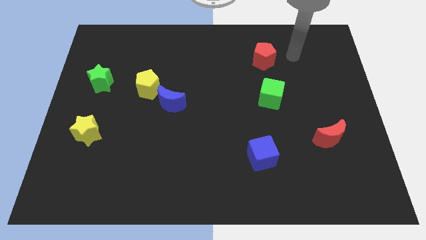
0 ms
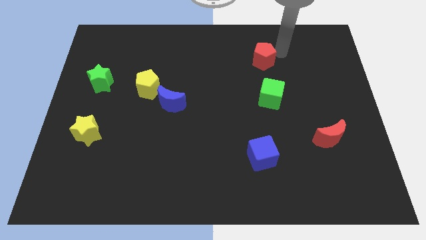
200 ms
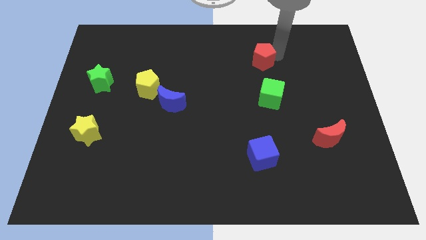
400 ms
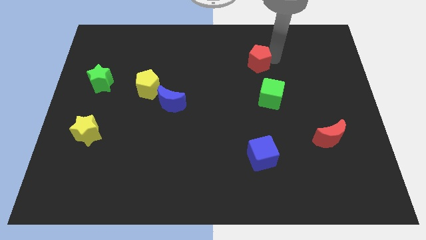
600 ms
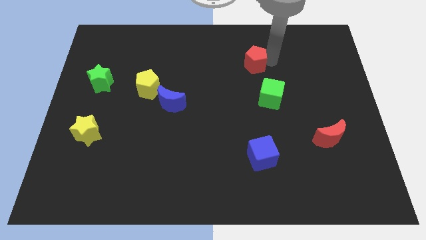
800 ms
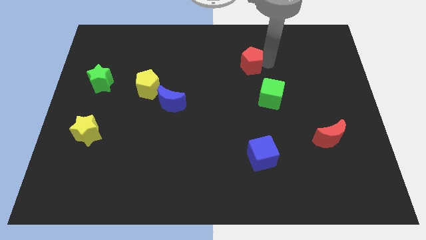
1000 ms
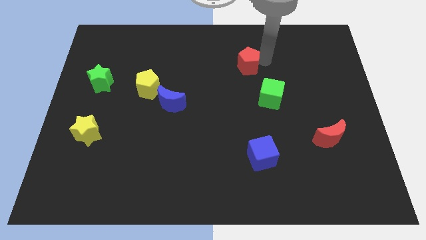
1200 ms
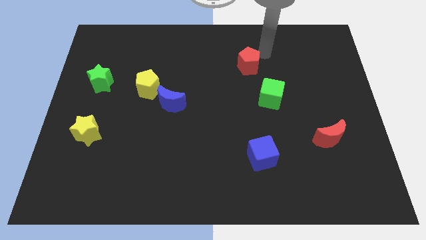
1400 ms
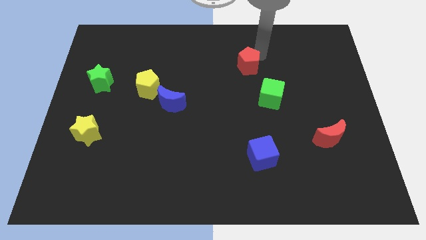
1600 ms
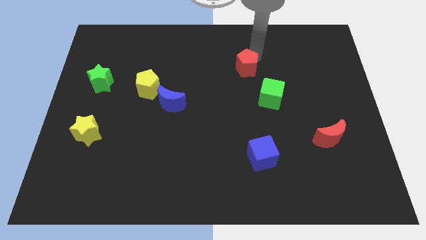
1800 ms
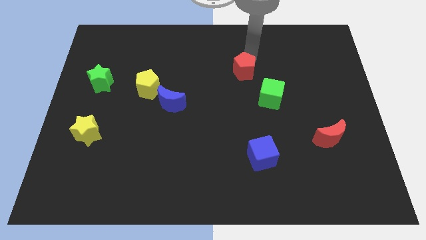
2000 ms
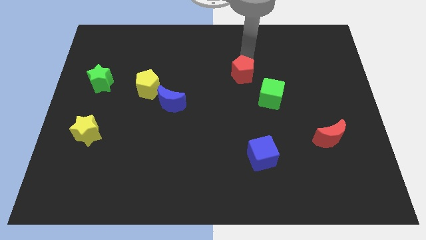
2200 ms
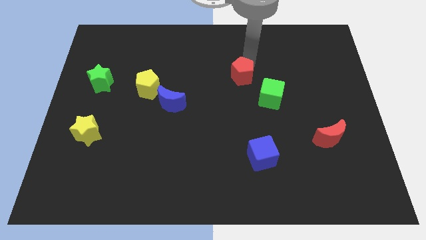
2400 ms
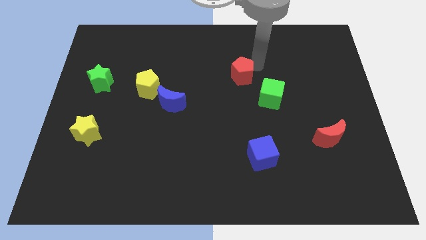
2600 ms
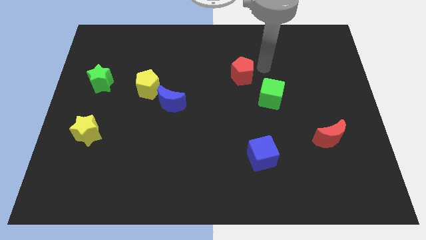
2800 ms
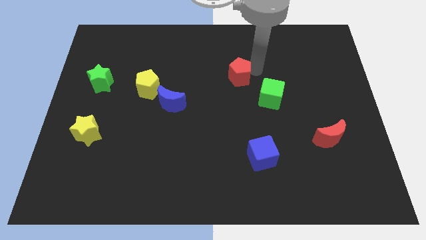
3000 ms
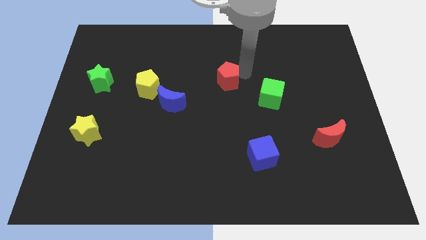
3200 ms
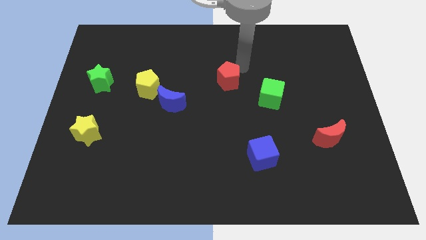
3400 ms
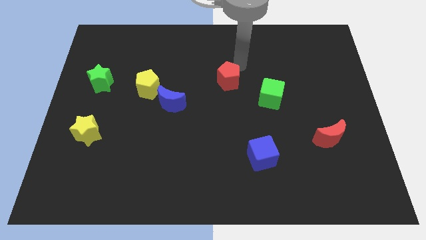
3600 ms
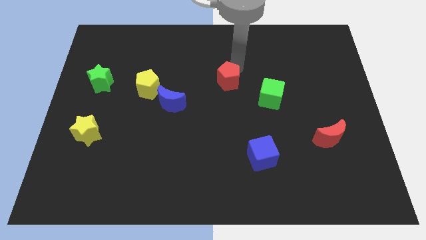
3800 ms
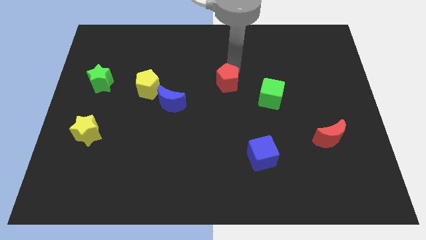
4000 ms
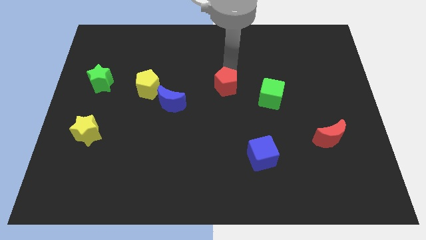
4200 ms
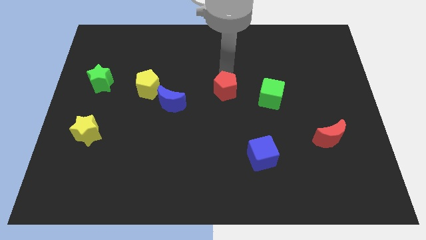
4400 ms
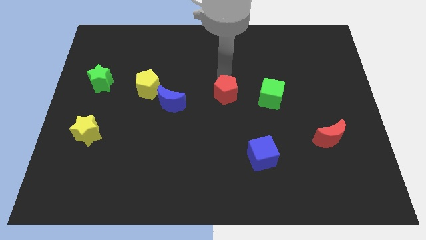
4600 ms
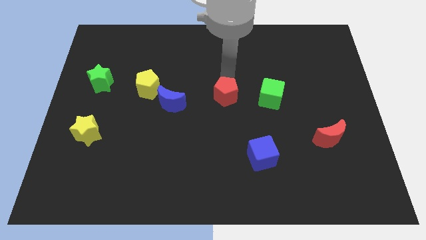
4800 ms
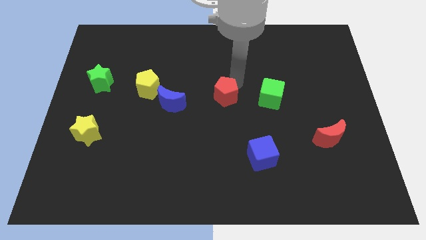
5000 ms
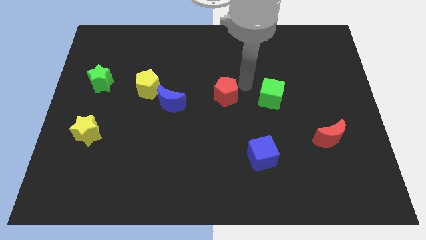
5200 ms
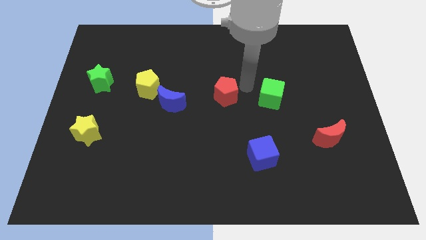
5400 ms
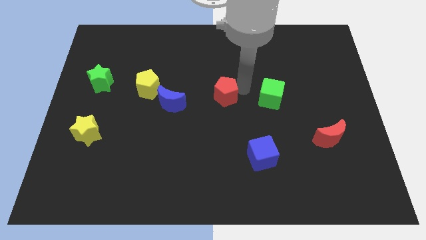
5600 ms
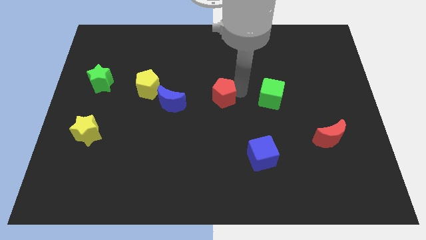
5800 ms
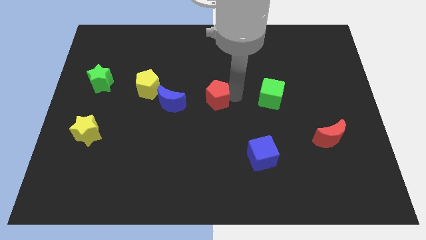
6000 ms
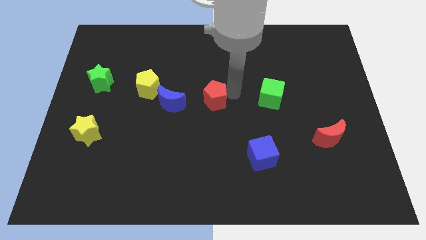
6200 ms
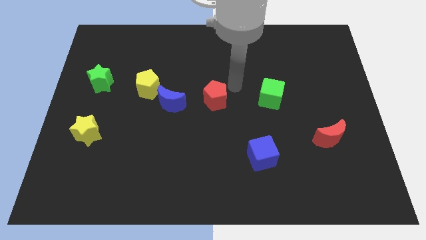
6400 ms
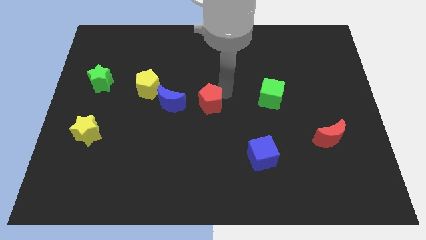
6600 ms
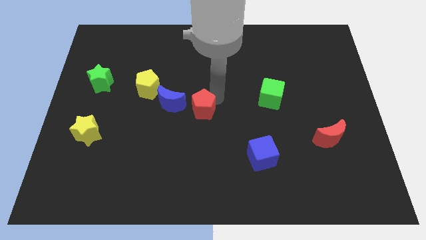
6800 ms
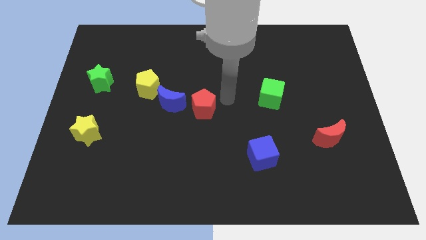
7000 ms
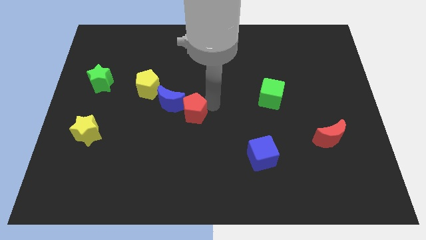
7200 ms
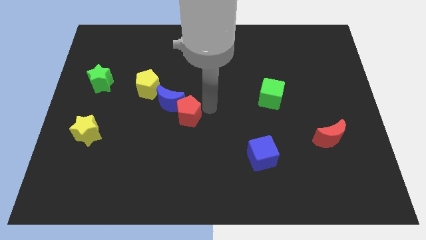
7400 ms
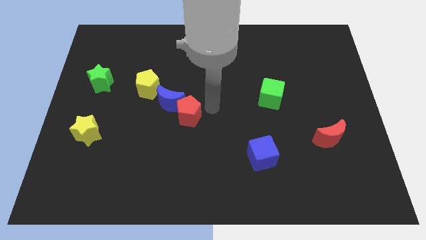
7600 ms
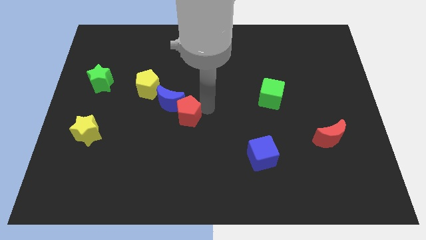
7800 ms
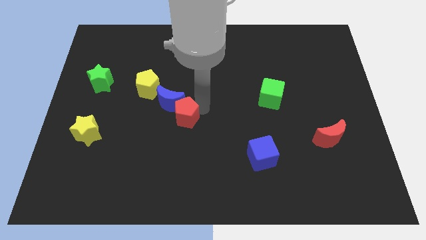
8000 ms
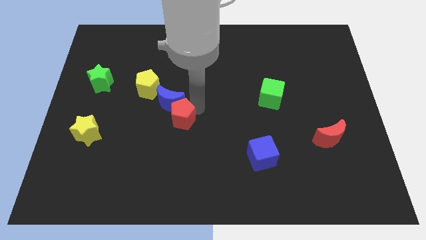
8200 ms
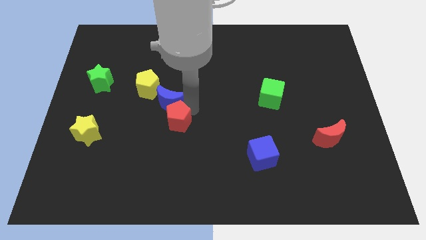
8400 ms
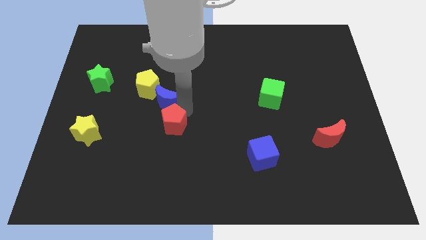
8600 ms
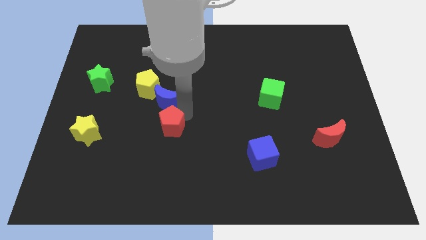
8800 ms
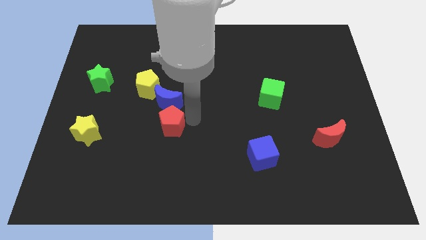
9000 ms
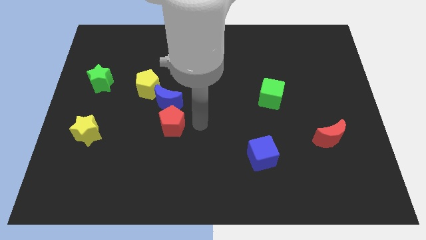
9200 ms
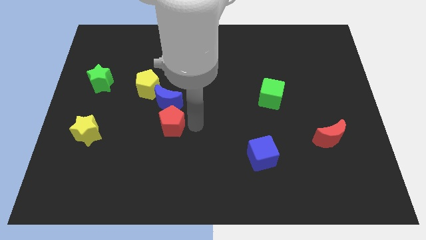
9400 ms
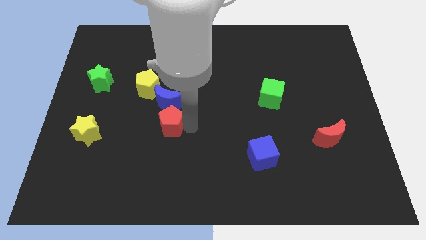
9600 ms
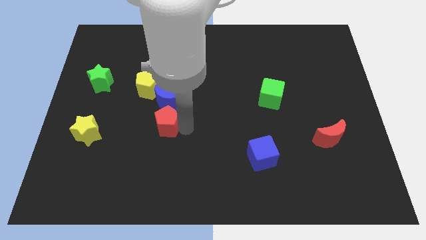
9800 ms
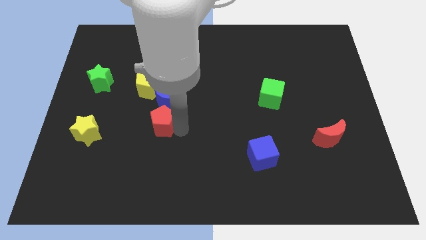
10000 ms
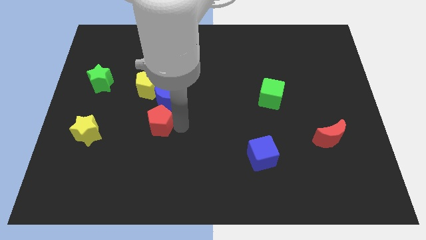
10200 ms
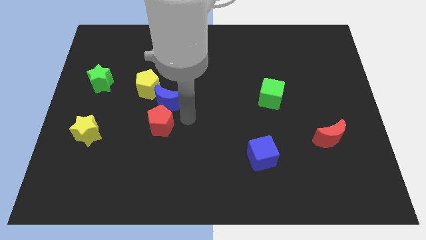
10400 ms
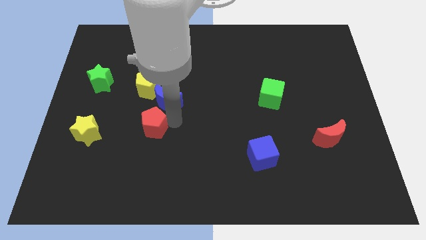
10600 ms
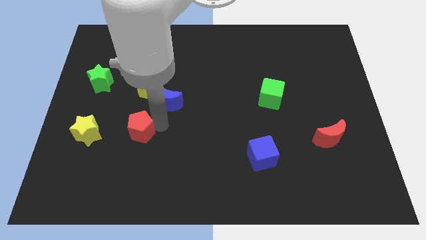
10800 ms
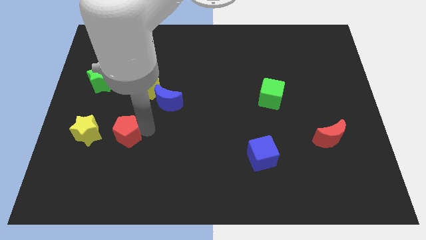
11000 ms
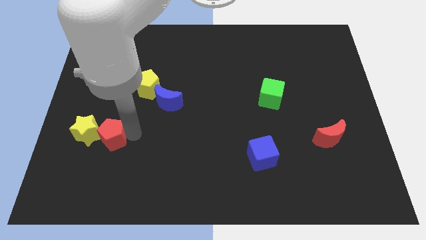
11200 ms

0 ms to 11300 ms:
push the red pentagon to the yellow star

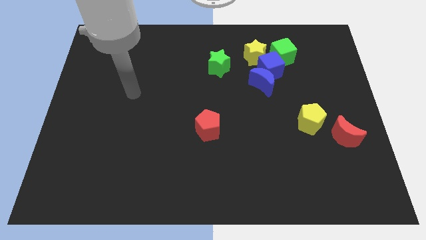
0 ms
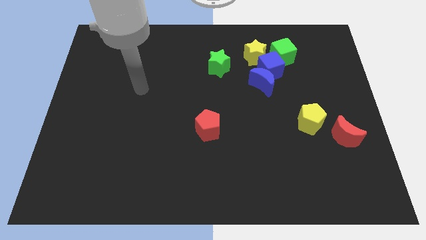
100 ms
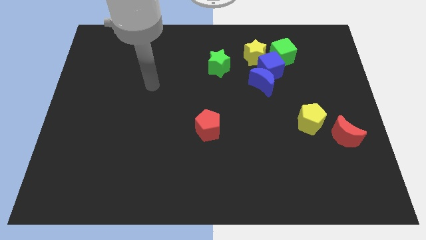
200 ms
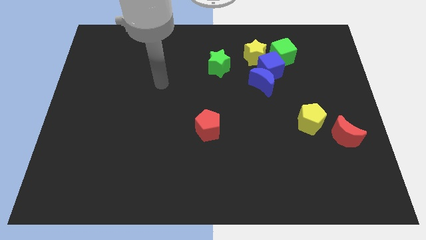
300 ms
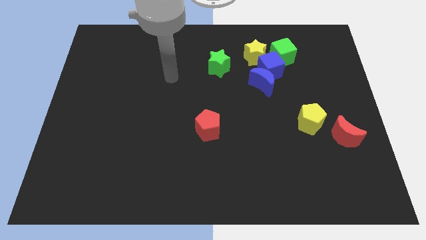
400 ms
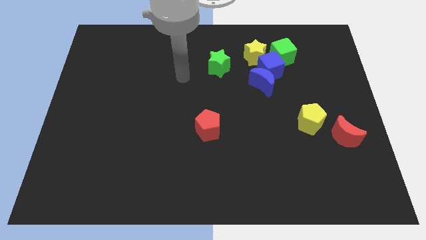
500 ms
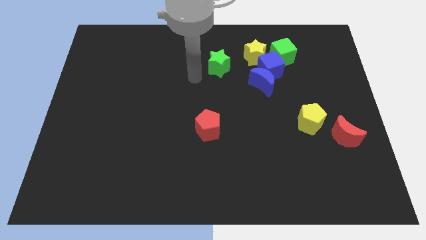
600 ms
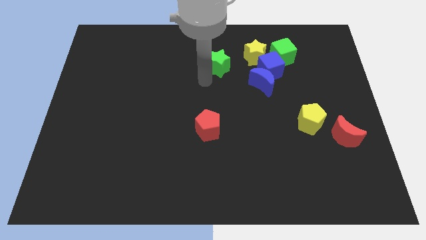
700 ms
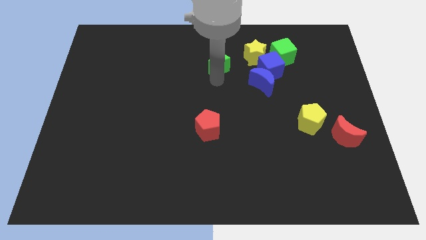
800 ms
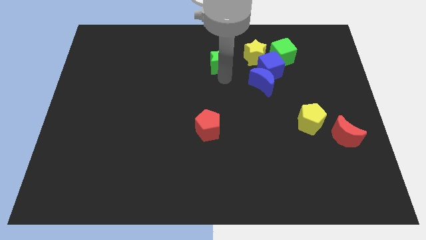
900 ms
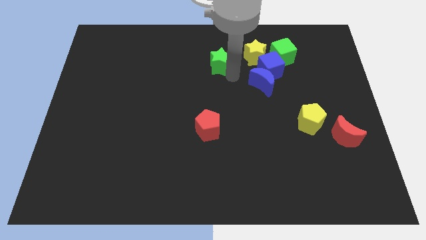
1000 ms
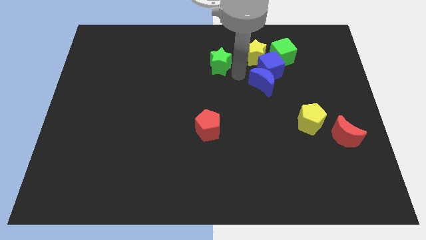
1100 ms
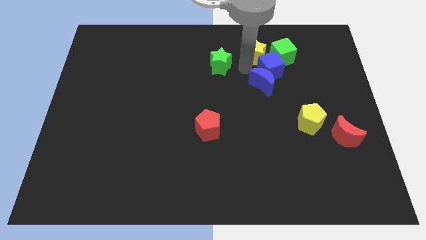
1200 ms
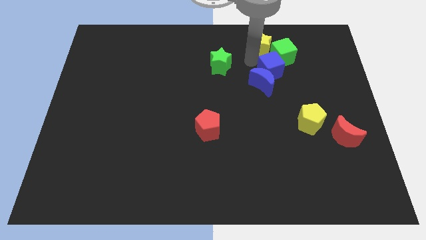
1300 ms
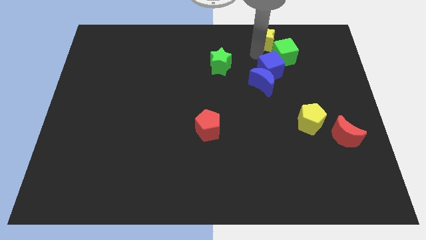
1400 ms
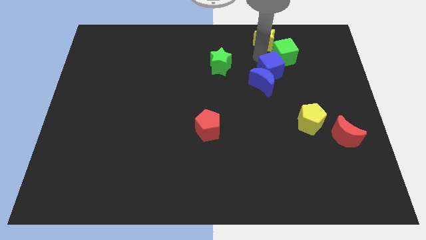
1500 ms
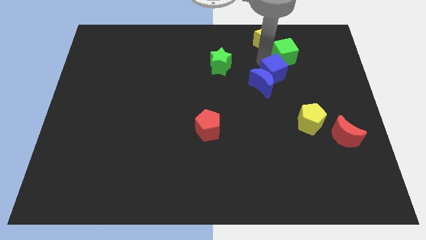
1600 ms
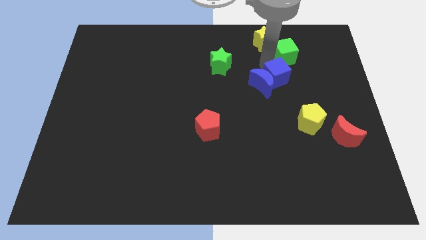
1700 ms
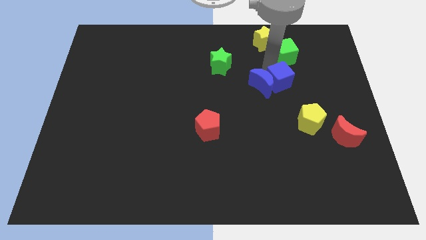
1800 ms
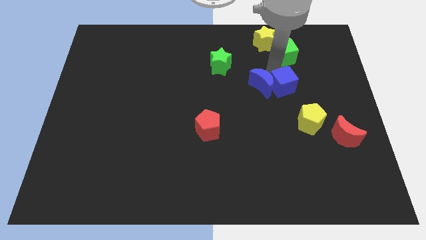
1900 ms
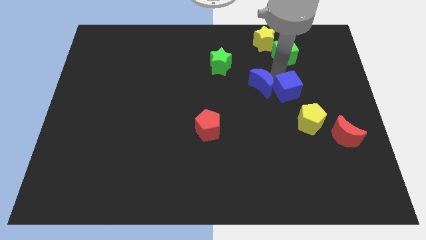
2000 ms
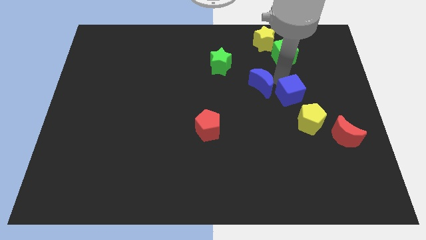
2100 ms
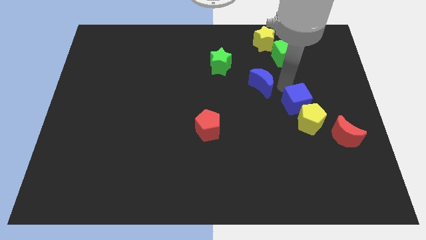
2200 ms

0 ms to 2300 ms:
slide the blue cube towards the yellow pentagon
